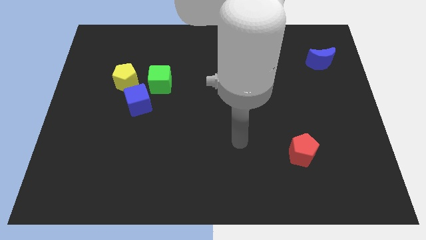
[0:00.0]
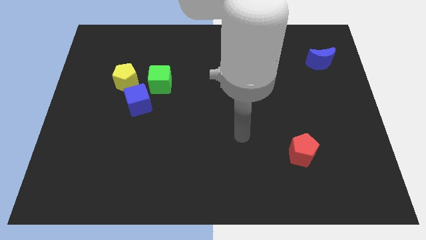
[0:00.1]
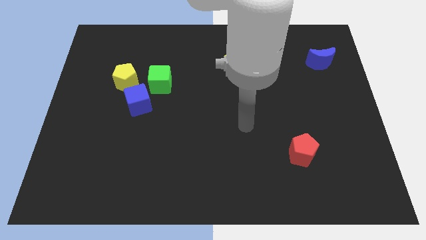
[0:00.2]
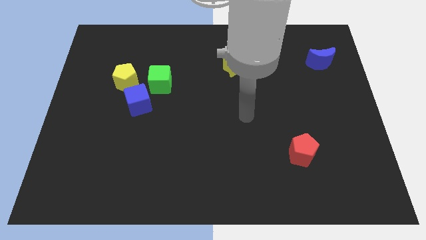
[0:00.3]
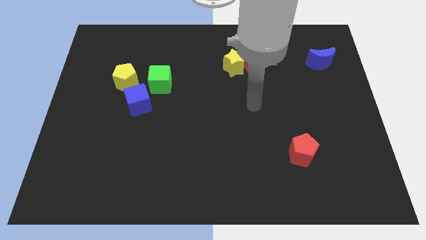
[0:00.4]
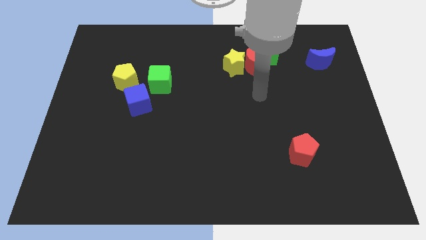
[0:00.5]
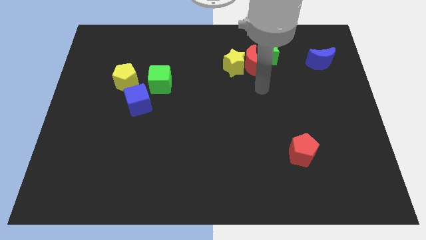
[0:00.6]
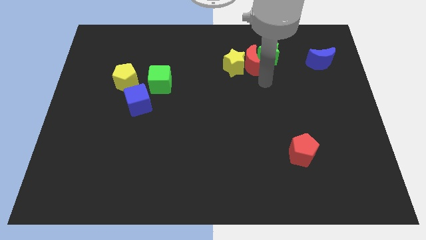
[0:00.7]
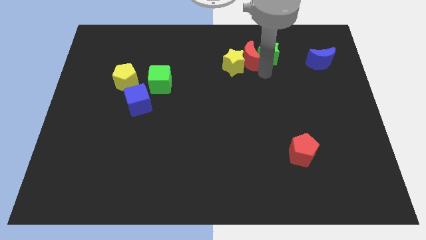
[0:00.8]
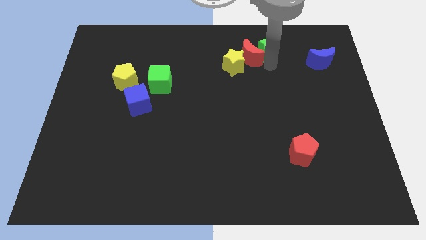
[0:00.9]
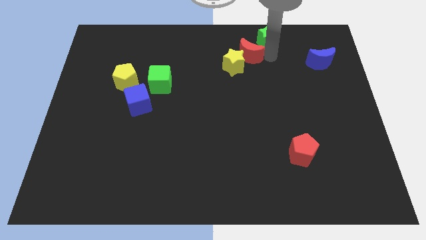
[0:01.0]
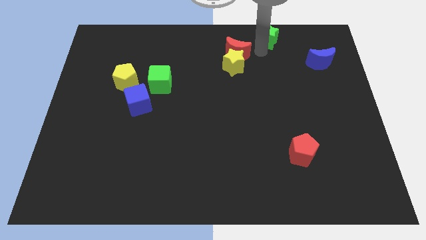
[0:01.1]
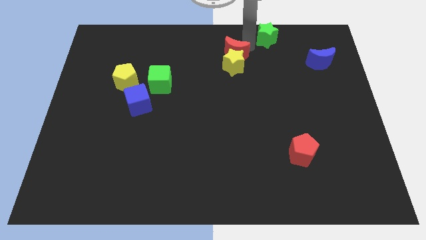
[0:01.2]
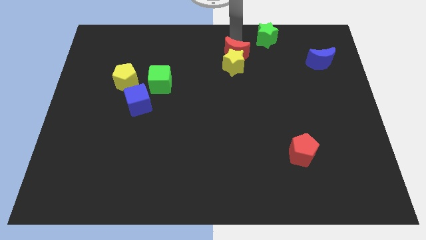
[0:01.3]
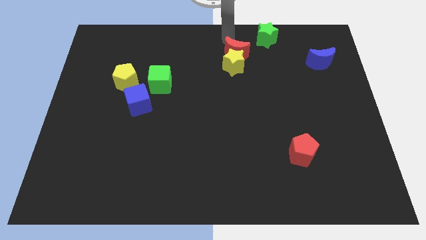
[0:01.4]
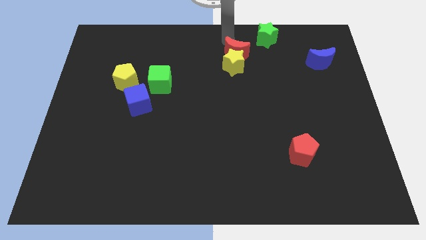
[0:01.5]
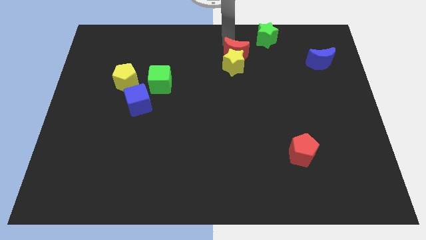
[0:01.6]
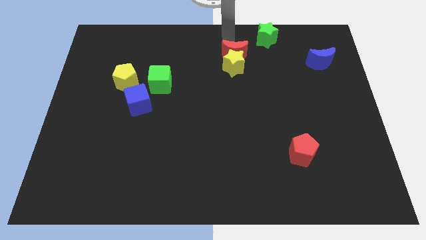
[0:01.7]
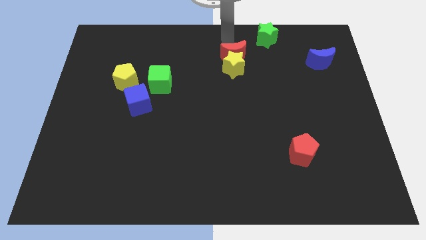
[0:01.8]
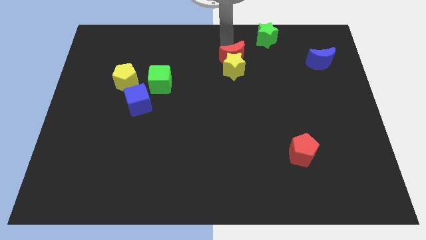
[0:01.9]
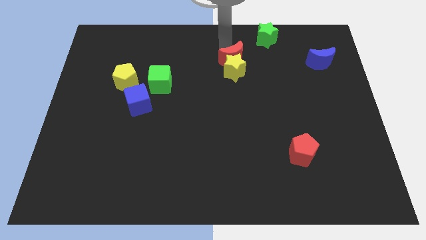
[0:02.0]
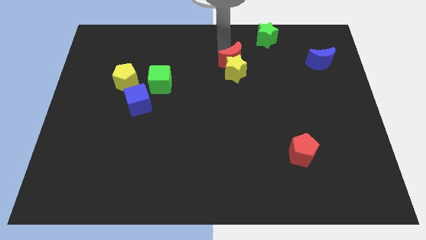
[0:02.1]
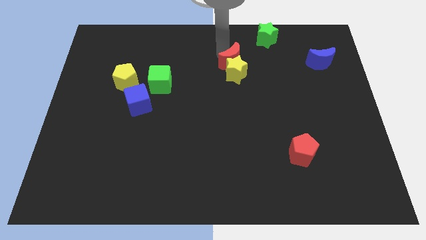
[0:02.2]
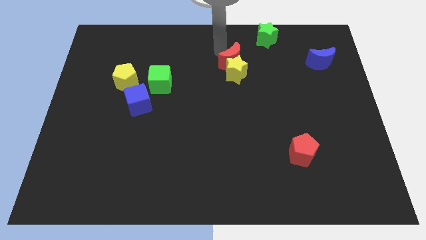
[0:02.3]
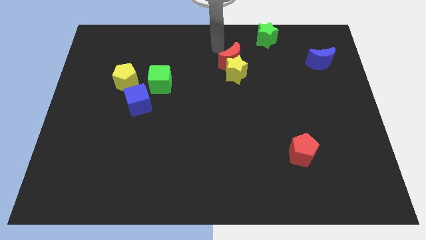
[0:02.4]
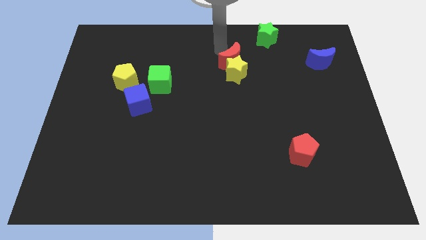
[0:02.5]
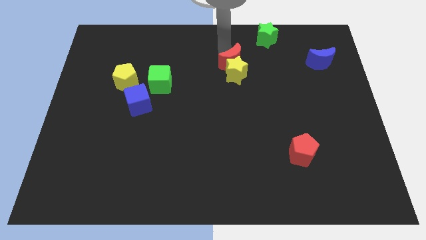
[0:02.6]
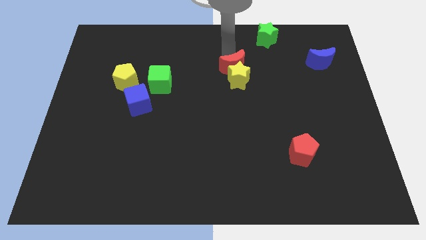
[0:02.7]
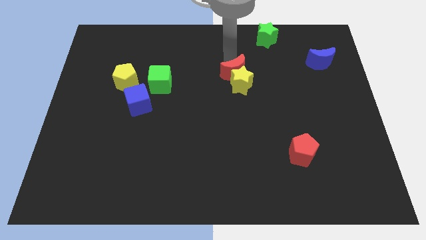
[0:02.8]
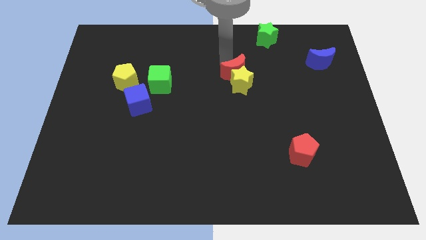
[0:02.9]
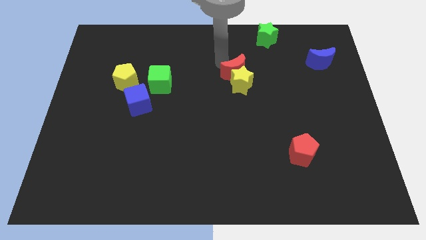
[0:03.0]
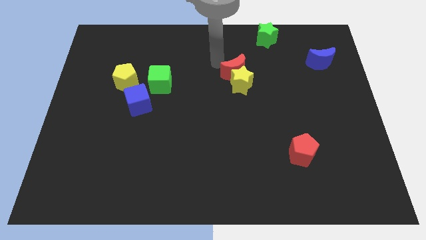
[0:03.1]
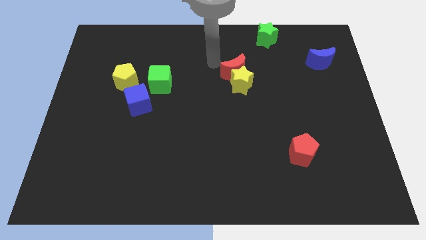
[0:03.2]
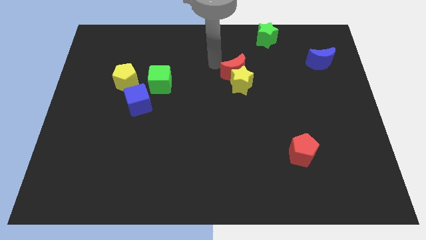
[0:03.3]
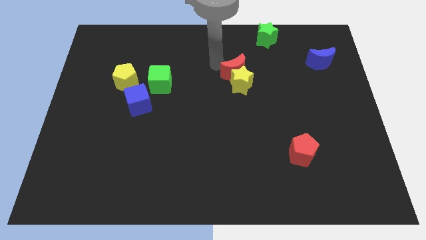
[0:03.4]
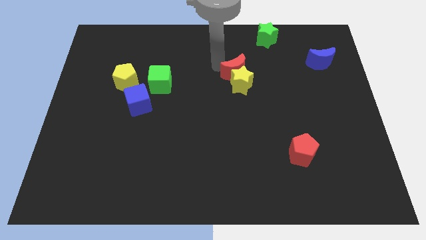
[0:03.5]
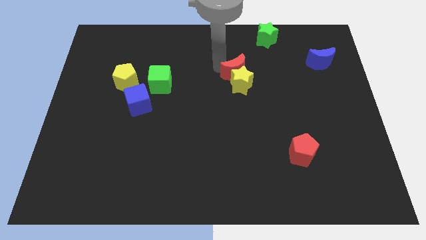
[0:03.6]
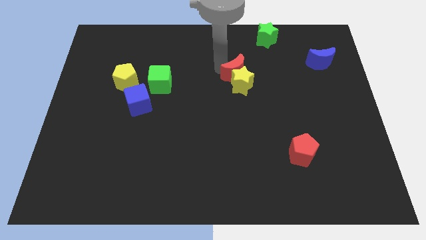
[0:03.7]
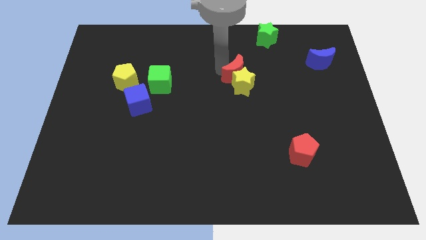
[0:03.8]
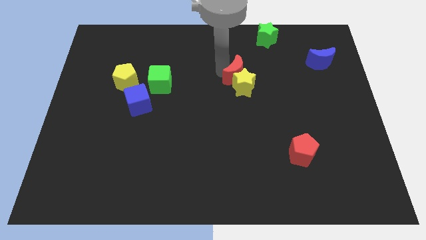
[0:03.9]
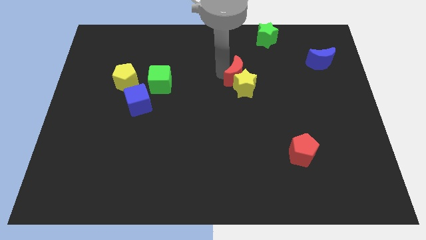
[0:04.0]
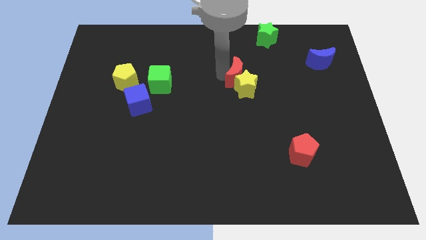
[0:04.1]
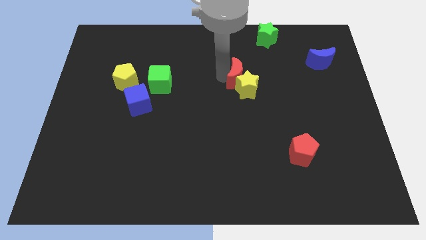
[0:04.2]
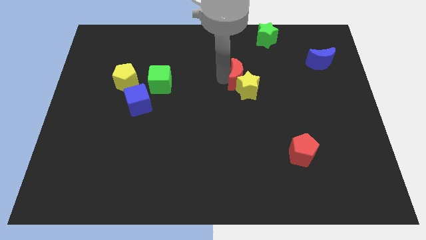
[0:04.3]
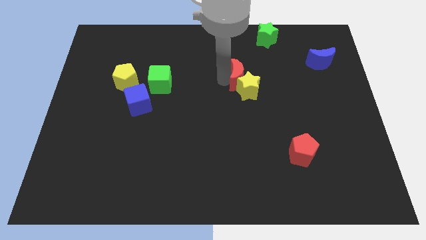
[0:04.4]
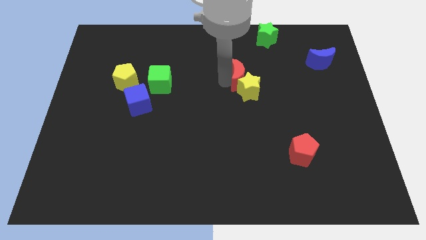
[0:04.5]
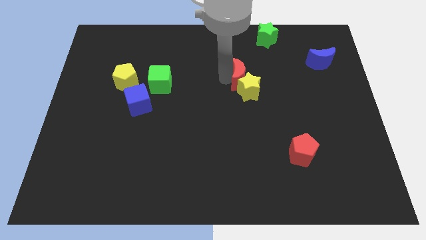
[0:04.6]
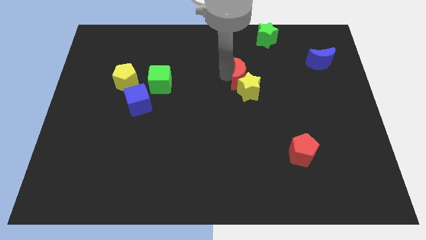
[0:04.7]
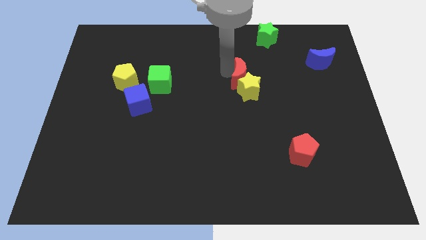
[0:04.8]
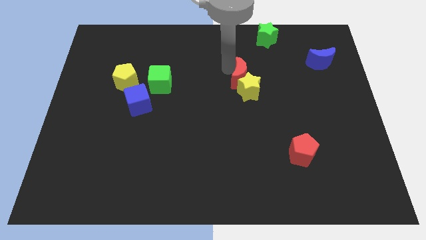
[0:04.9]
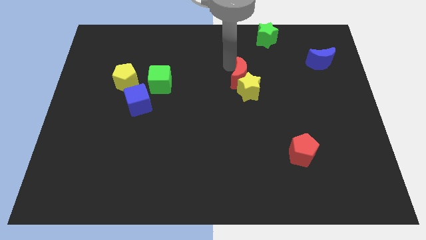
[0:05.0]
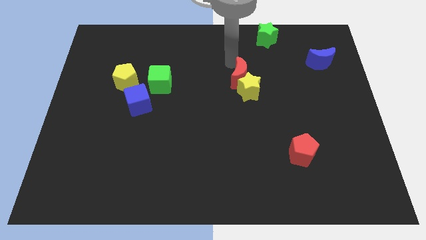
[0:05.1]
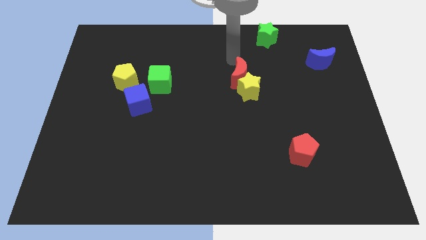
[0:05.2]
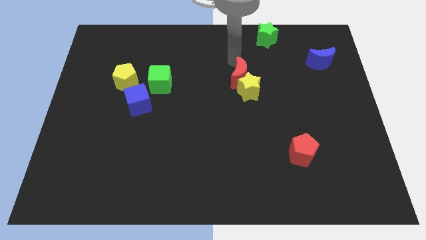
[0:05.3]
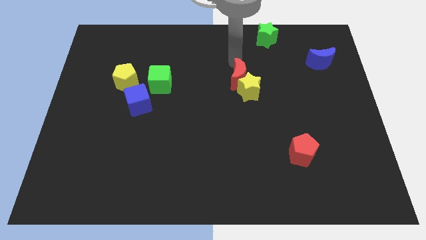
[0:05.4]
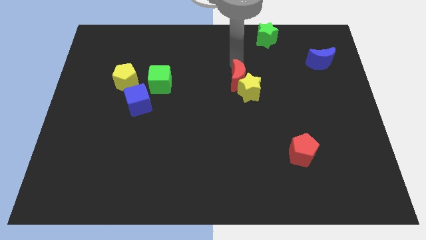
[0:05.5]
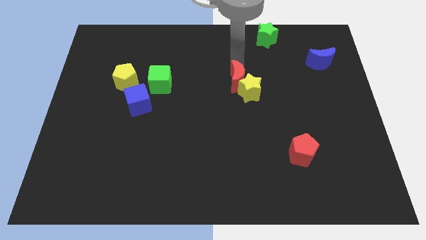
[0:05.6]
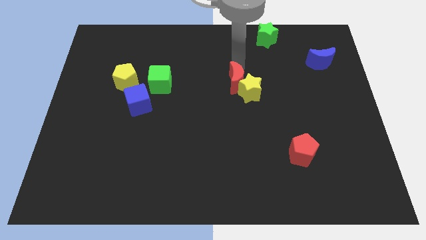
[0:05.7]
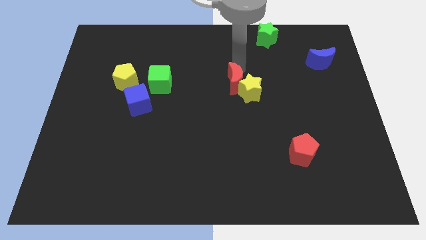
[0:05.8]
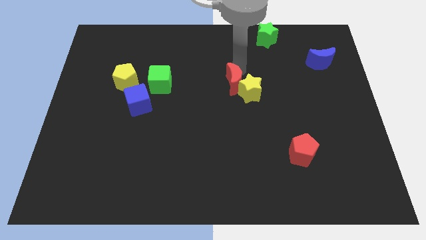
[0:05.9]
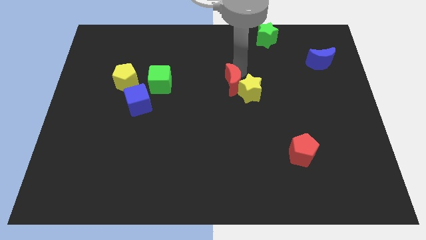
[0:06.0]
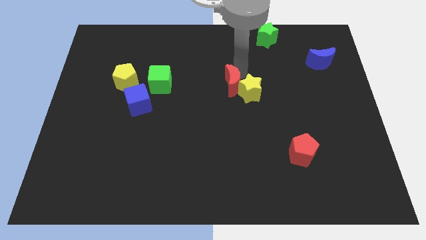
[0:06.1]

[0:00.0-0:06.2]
pull the red moon apart from the yellow star and green star

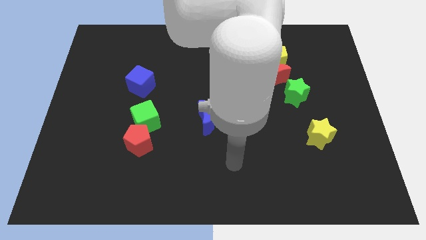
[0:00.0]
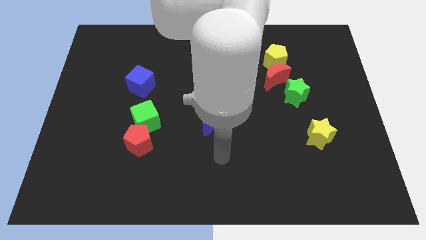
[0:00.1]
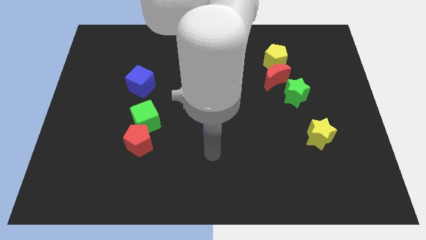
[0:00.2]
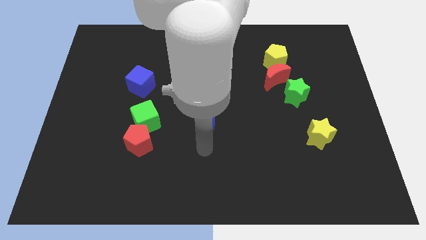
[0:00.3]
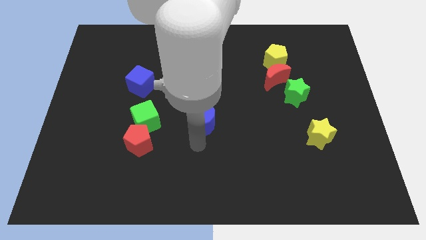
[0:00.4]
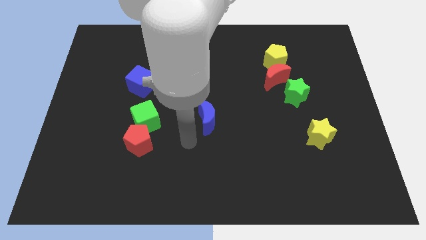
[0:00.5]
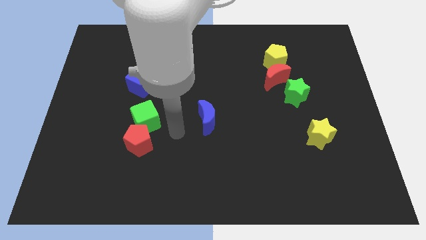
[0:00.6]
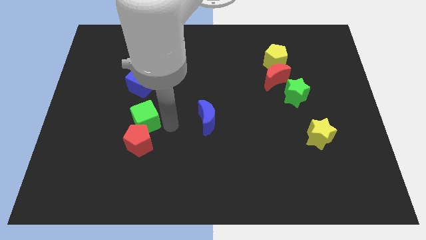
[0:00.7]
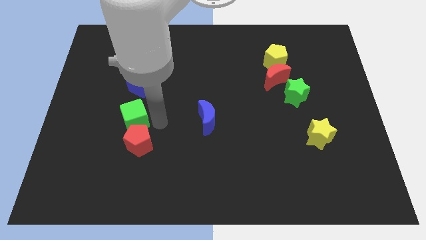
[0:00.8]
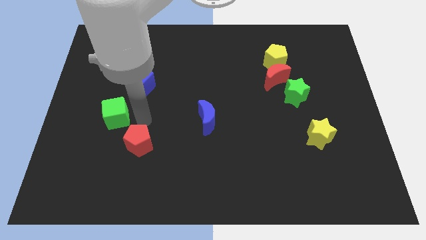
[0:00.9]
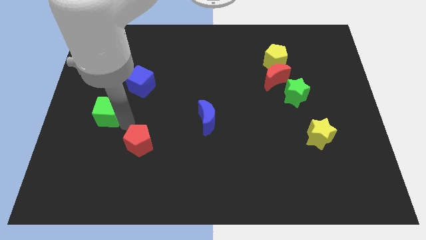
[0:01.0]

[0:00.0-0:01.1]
separate the red pentagon from the green cube

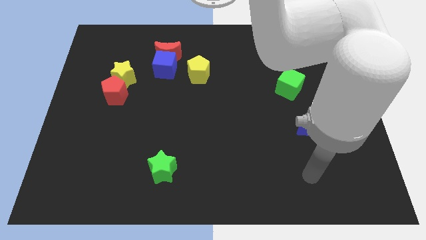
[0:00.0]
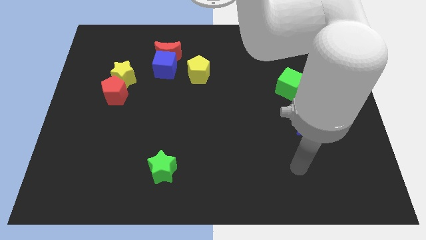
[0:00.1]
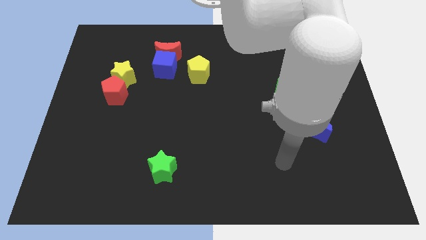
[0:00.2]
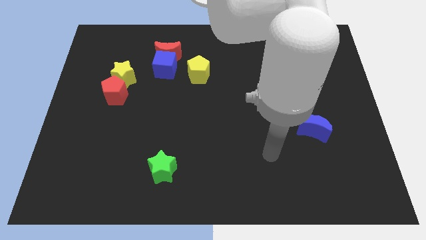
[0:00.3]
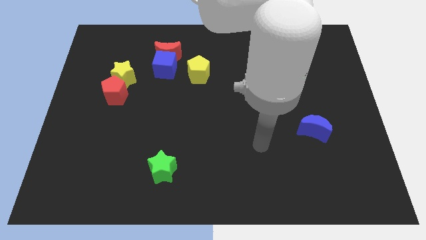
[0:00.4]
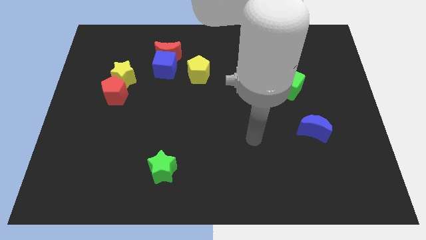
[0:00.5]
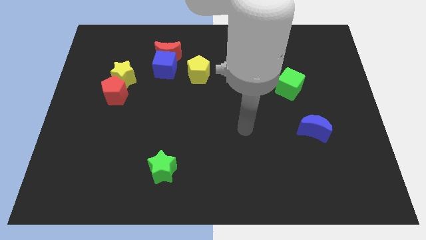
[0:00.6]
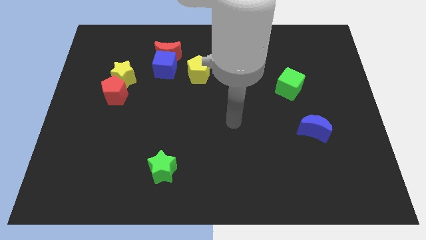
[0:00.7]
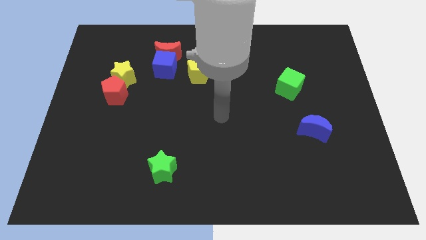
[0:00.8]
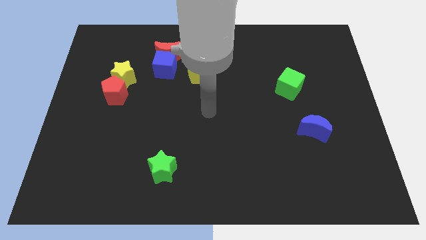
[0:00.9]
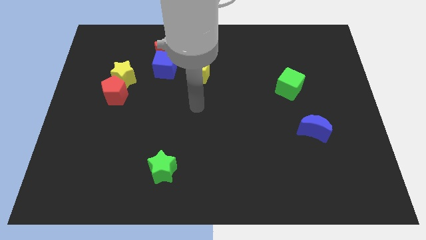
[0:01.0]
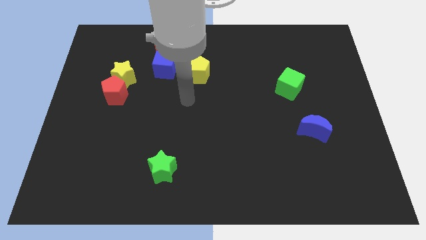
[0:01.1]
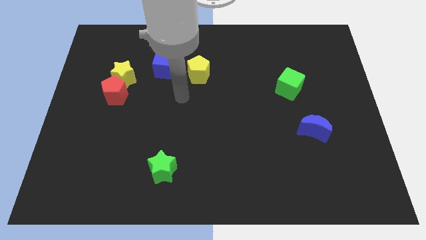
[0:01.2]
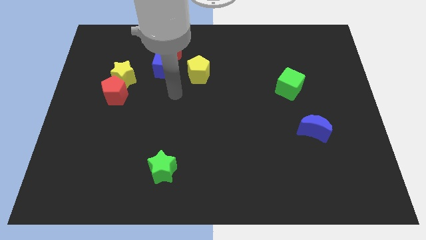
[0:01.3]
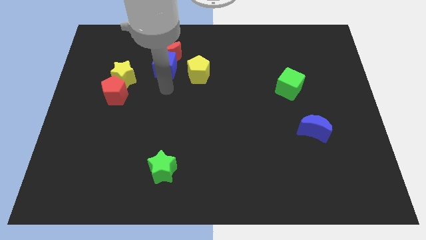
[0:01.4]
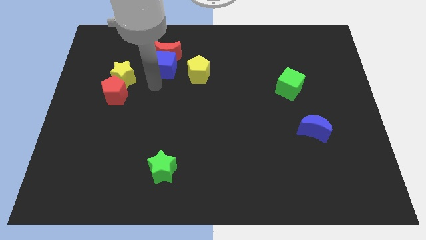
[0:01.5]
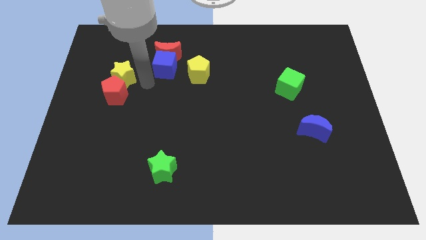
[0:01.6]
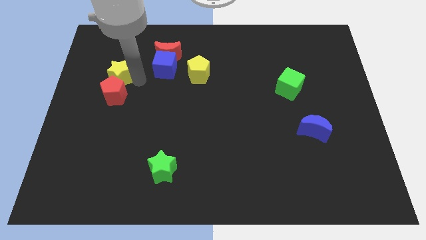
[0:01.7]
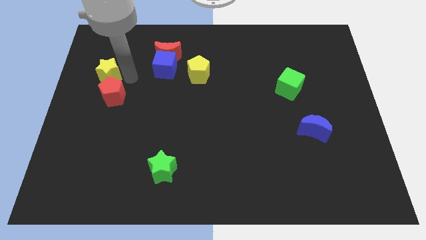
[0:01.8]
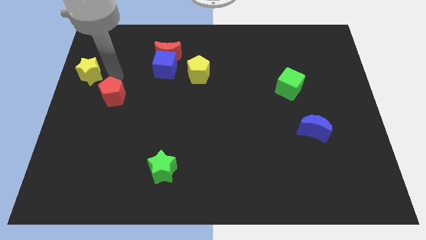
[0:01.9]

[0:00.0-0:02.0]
pull the red pentagon apart from the yellow star
